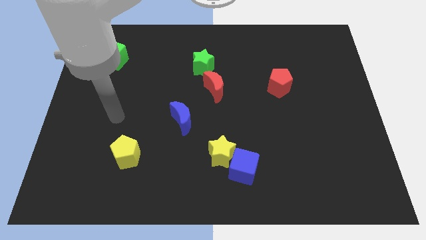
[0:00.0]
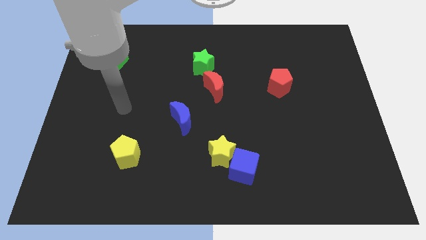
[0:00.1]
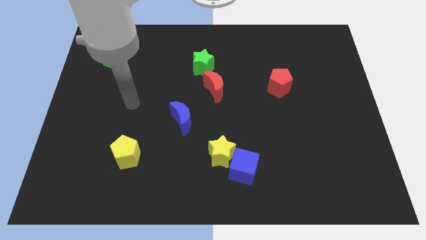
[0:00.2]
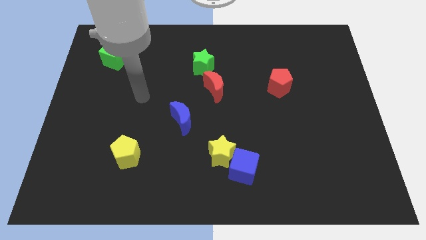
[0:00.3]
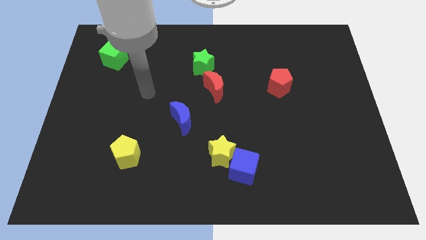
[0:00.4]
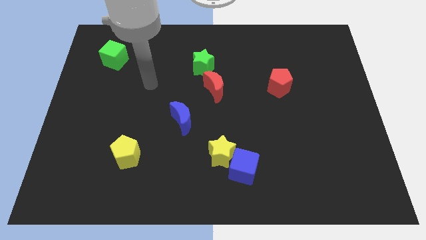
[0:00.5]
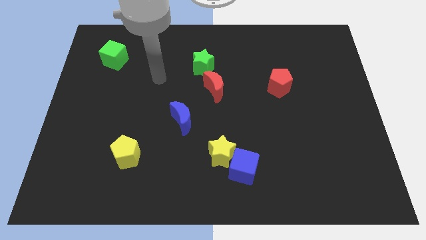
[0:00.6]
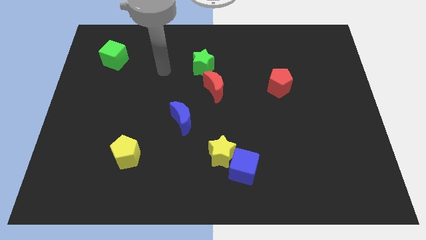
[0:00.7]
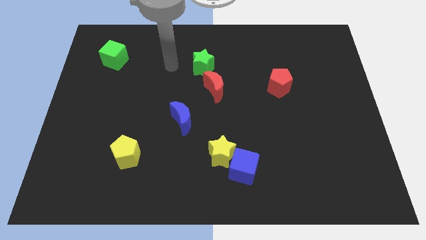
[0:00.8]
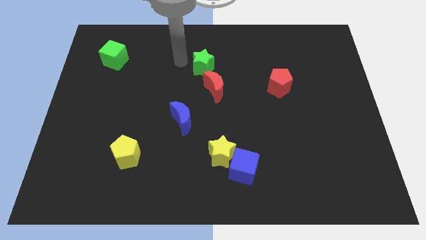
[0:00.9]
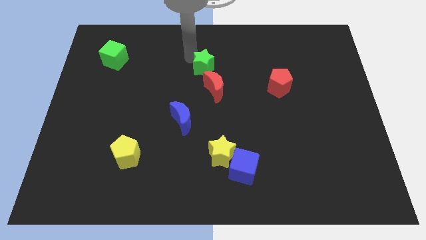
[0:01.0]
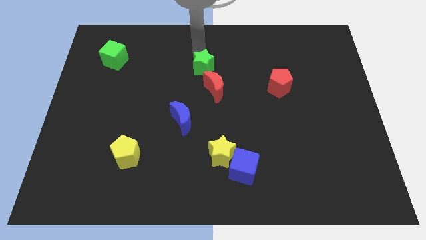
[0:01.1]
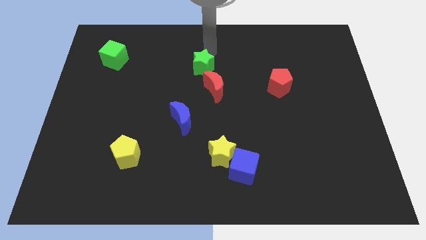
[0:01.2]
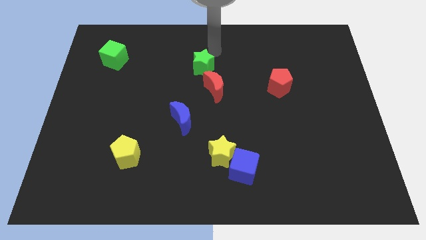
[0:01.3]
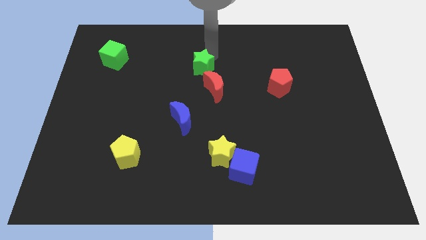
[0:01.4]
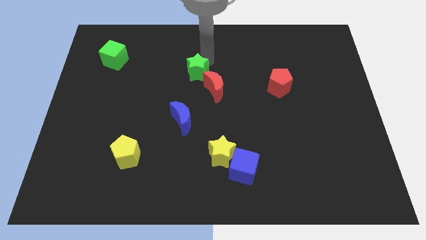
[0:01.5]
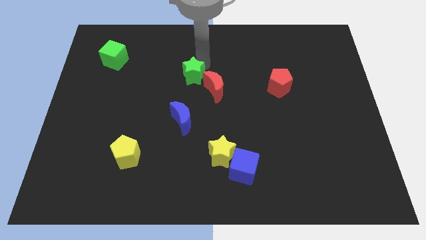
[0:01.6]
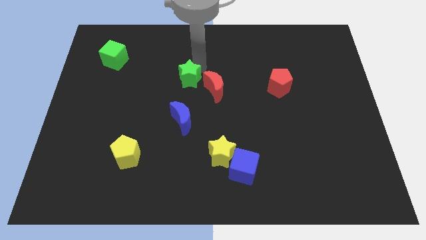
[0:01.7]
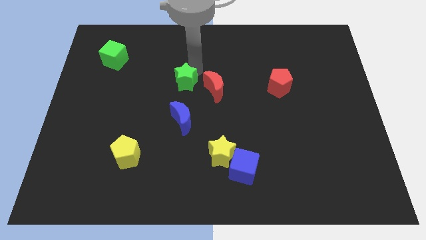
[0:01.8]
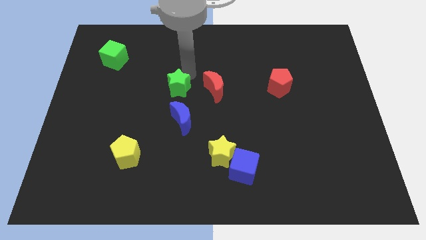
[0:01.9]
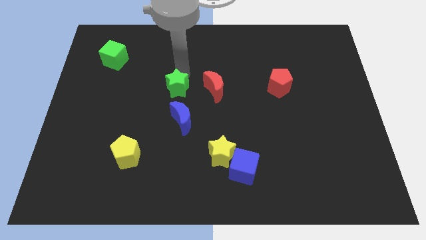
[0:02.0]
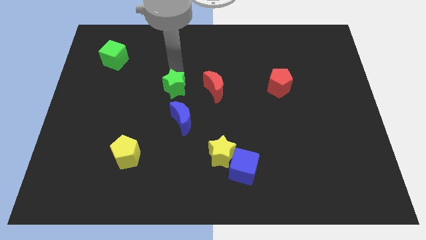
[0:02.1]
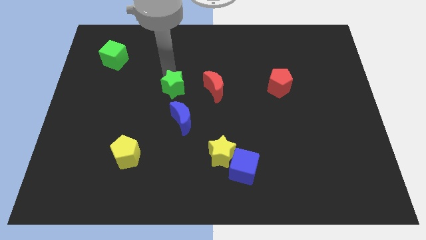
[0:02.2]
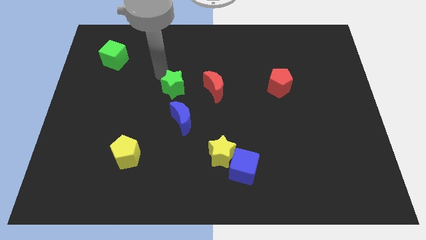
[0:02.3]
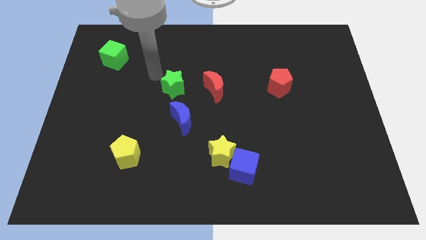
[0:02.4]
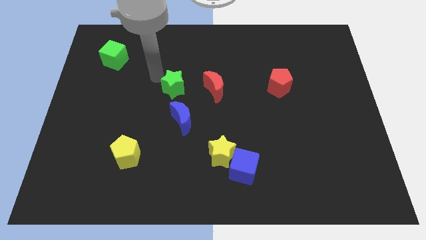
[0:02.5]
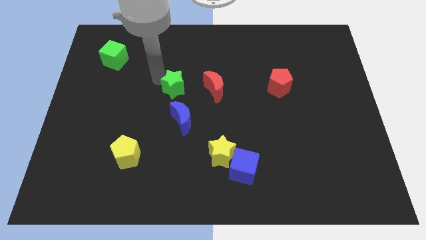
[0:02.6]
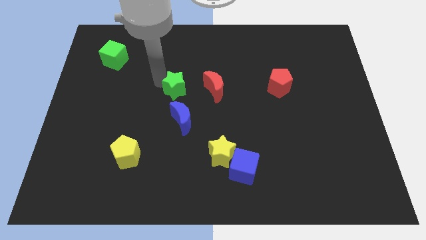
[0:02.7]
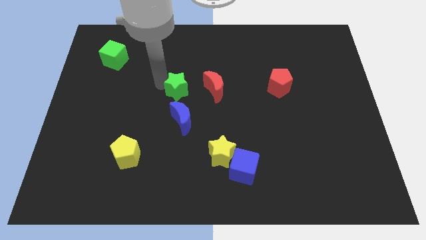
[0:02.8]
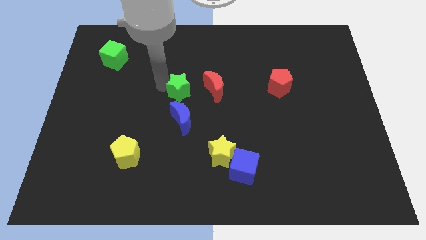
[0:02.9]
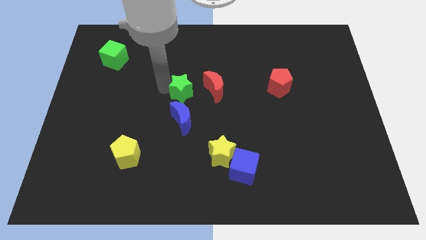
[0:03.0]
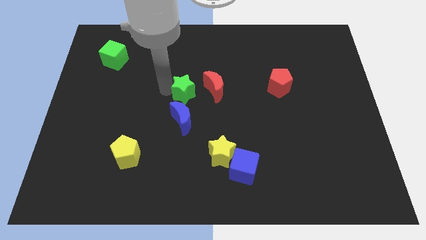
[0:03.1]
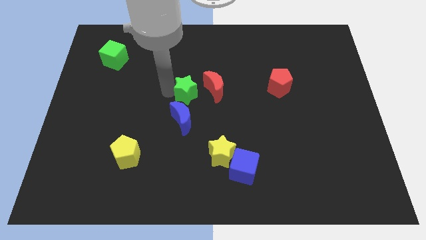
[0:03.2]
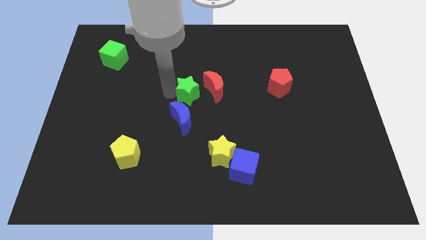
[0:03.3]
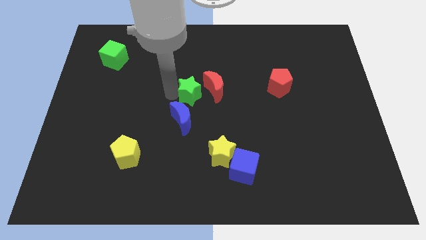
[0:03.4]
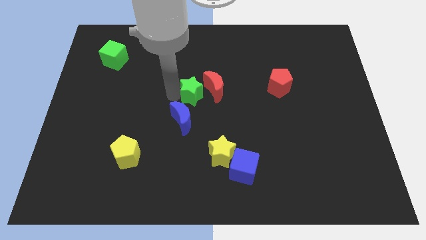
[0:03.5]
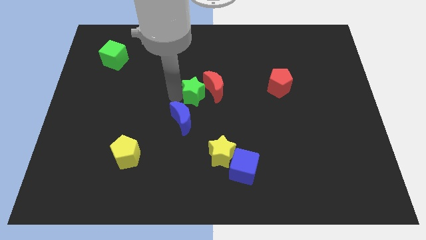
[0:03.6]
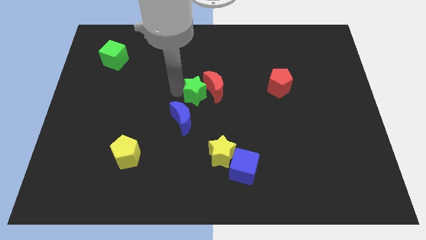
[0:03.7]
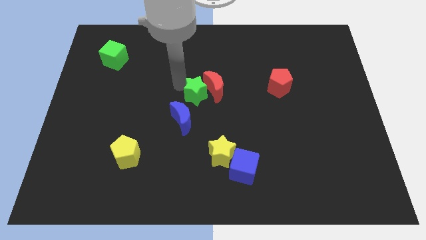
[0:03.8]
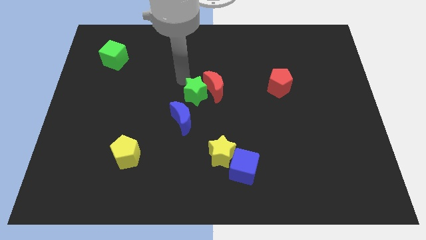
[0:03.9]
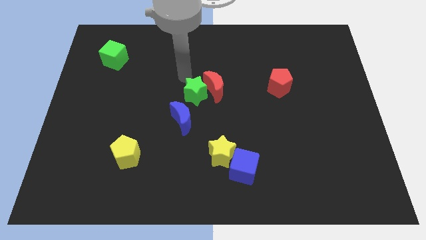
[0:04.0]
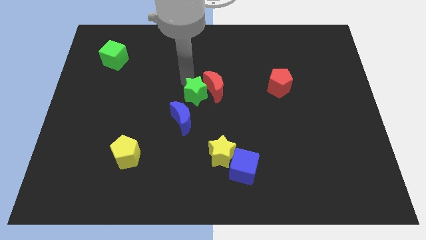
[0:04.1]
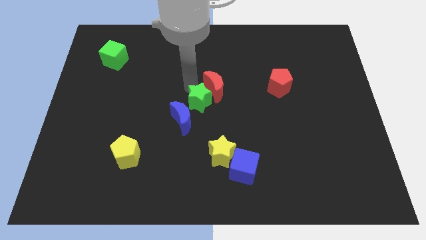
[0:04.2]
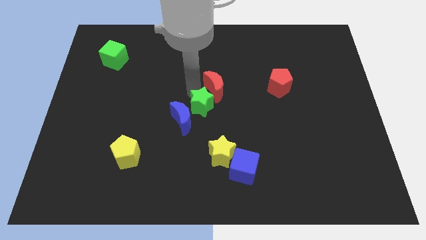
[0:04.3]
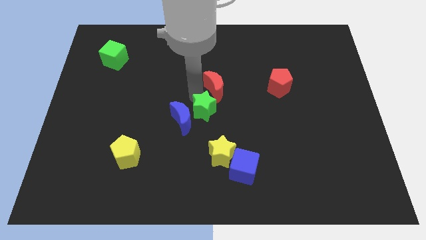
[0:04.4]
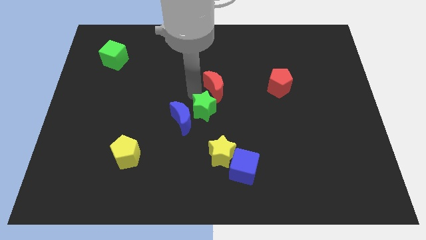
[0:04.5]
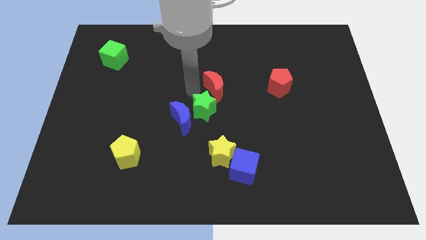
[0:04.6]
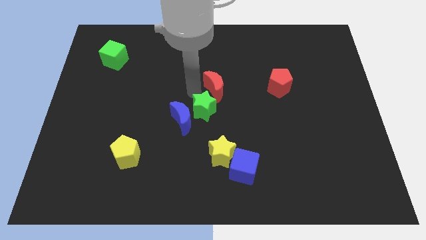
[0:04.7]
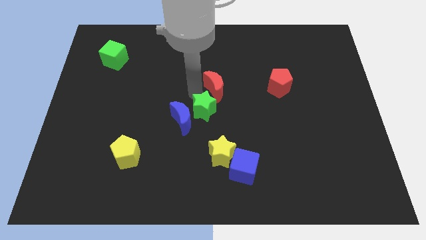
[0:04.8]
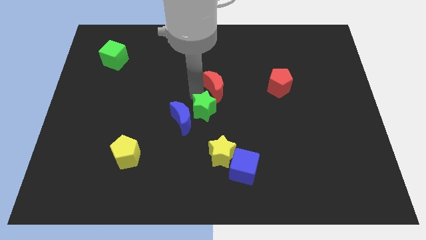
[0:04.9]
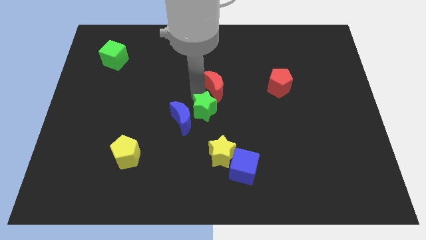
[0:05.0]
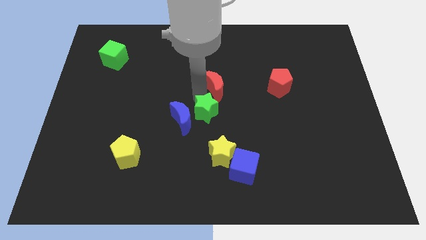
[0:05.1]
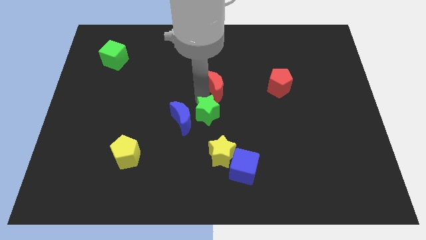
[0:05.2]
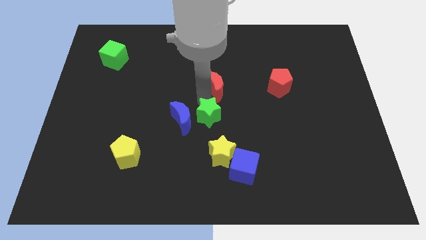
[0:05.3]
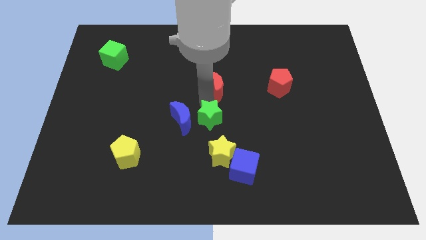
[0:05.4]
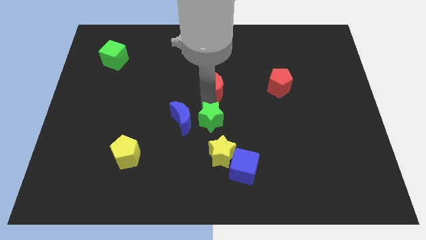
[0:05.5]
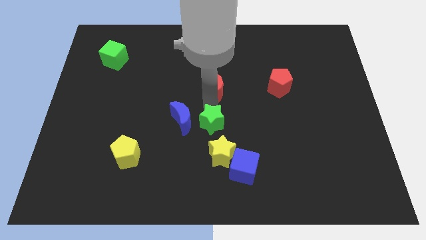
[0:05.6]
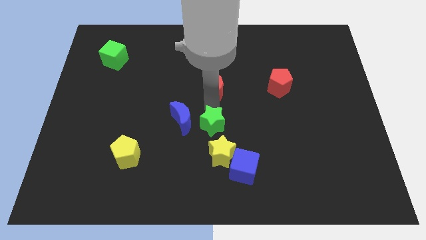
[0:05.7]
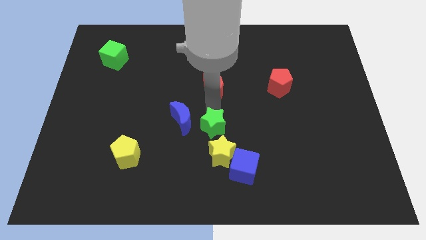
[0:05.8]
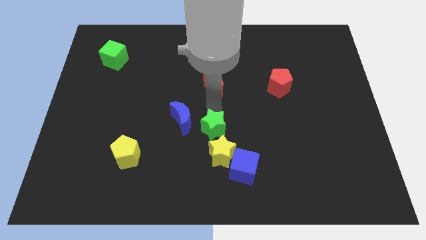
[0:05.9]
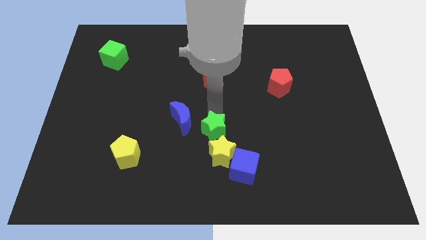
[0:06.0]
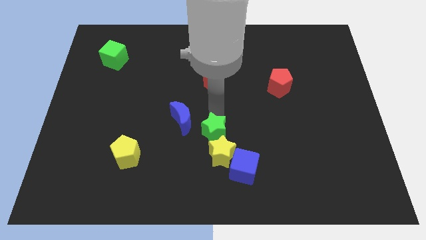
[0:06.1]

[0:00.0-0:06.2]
push the green star next to the yellow star

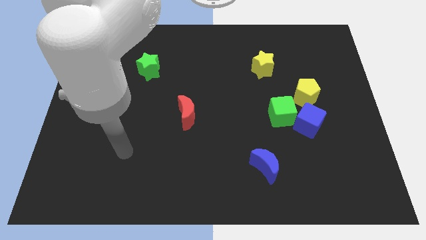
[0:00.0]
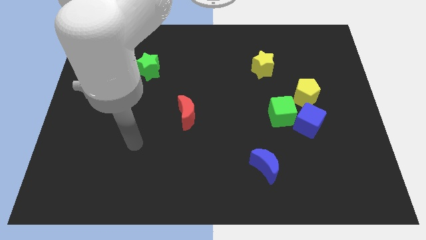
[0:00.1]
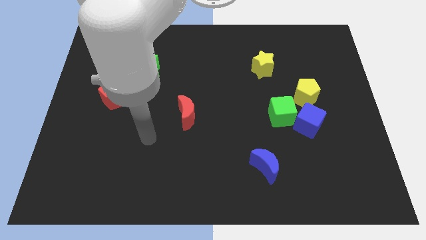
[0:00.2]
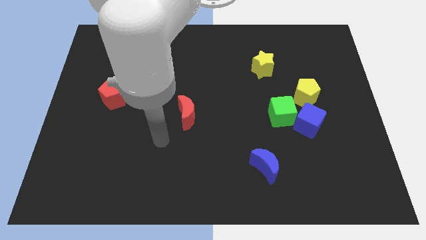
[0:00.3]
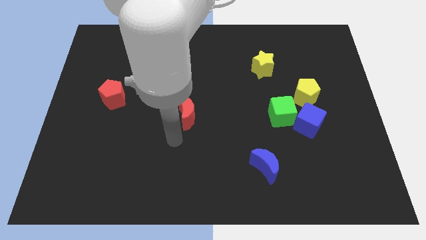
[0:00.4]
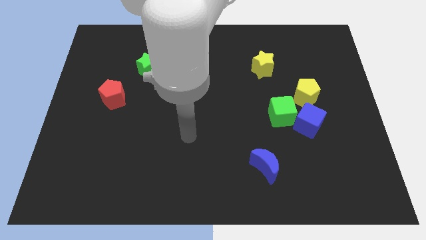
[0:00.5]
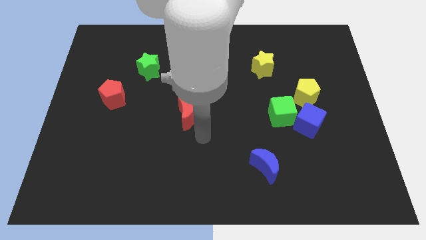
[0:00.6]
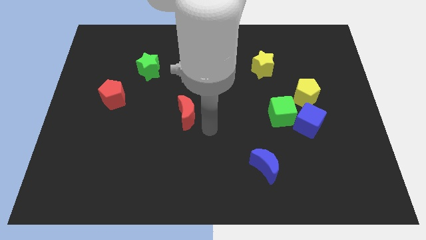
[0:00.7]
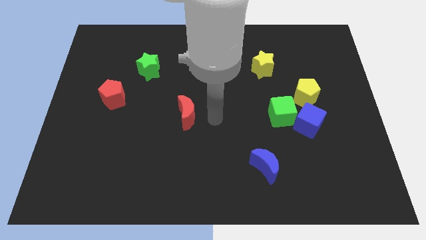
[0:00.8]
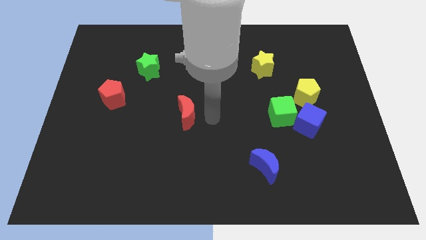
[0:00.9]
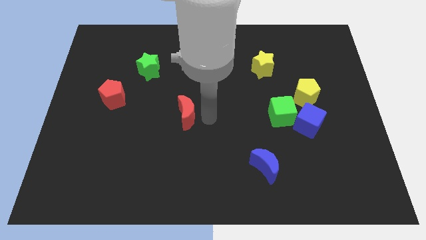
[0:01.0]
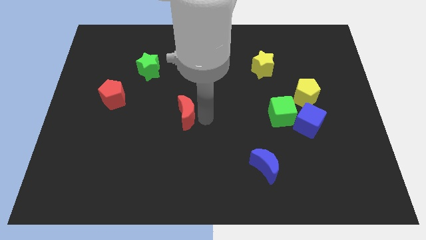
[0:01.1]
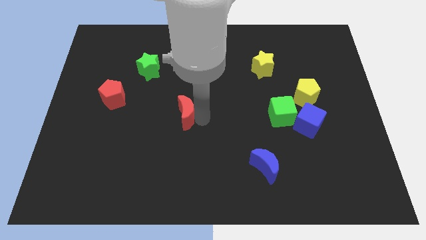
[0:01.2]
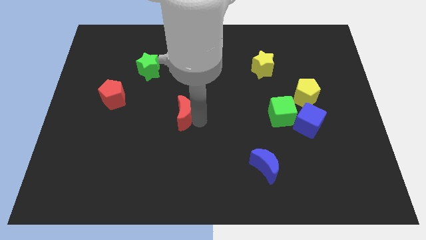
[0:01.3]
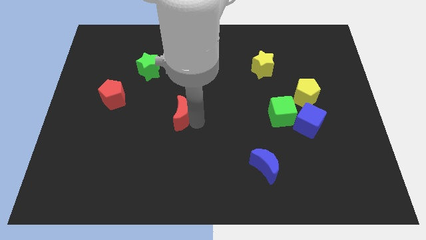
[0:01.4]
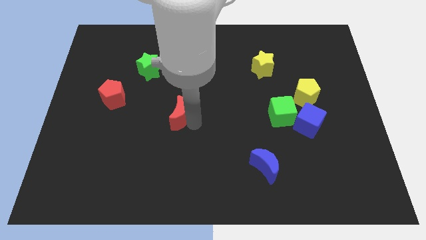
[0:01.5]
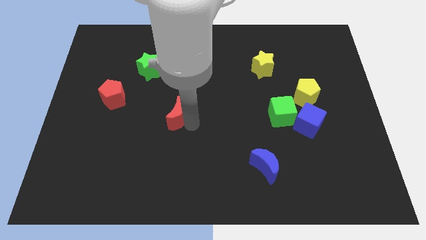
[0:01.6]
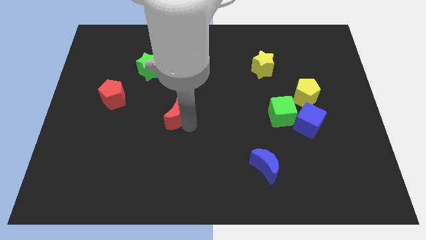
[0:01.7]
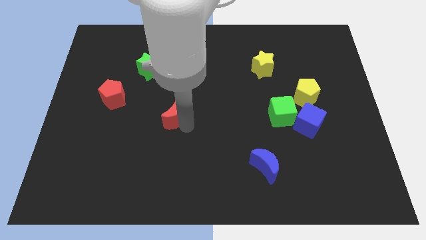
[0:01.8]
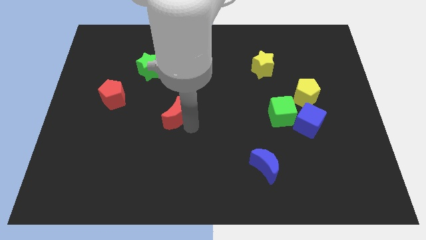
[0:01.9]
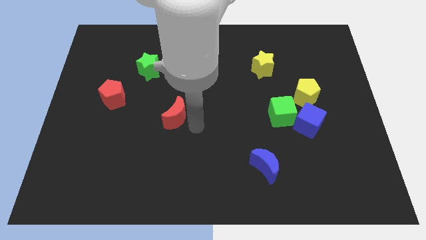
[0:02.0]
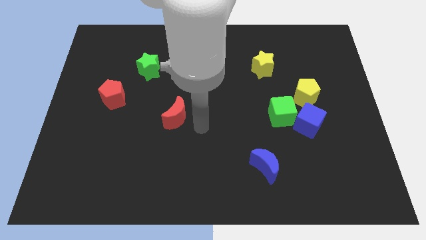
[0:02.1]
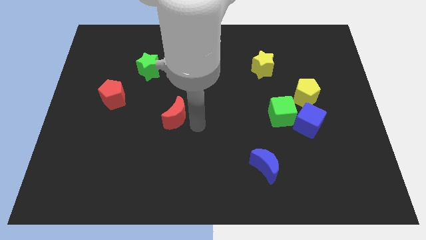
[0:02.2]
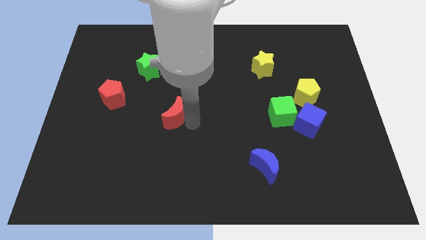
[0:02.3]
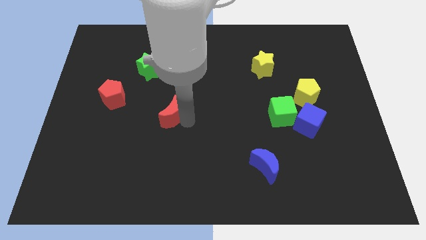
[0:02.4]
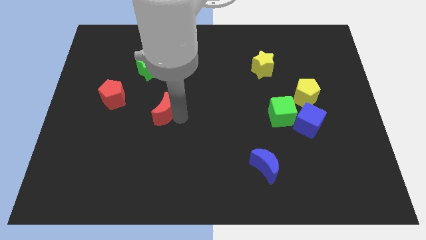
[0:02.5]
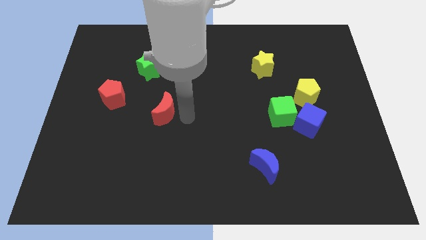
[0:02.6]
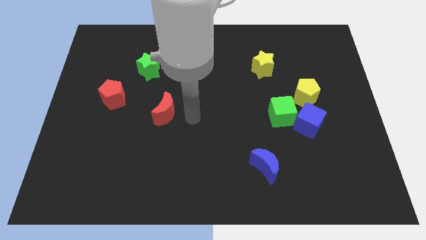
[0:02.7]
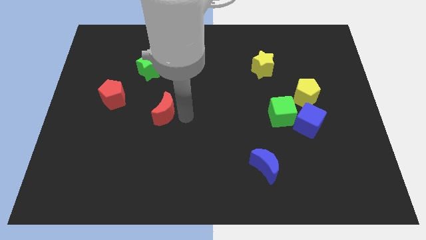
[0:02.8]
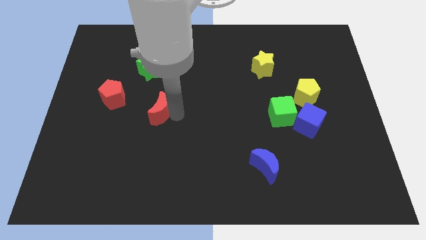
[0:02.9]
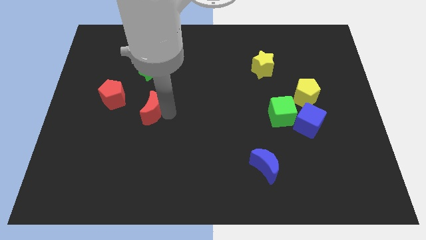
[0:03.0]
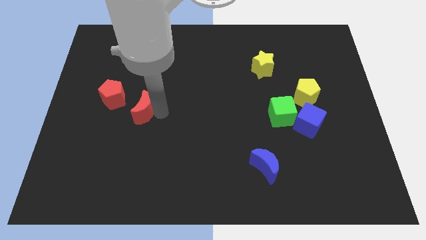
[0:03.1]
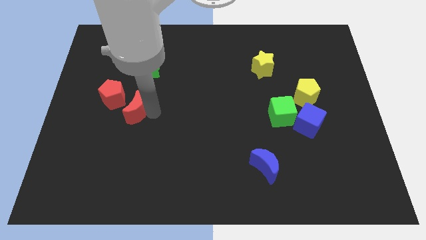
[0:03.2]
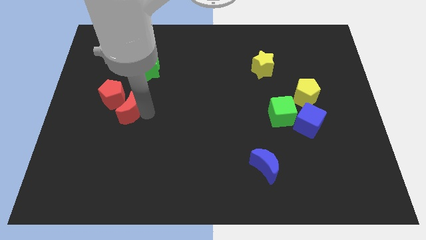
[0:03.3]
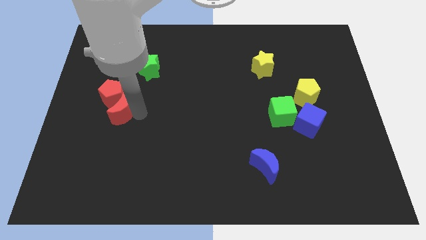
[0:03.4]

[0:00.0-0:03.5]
put the red moon next to the red pentagon
